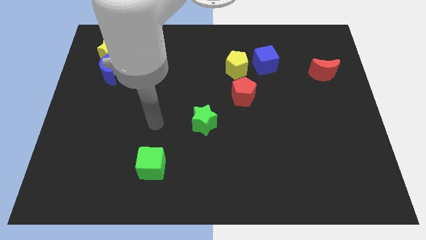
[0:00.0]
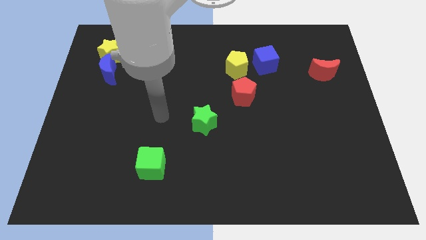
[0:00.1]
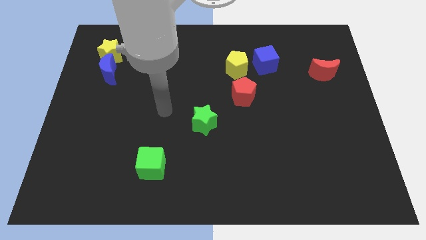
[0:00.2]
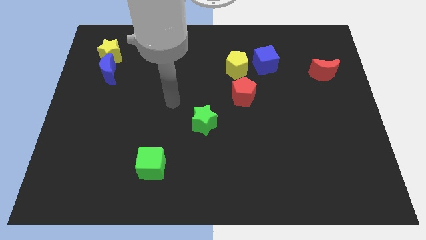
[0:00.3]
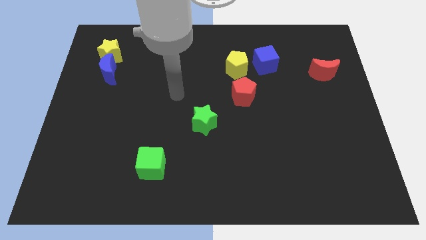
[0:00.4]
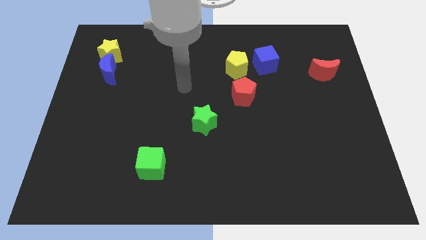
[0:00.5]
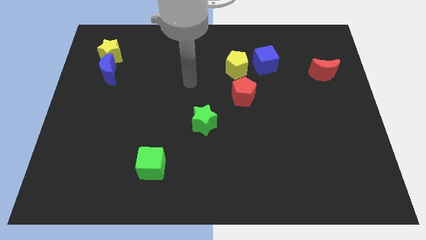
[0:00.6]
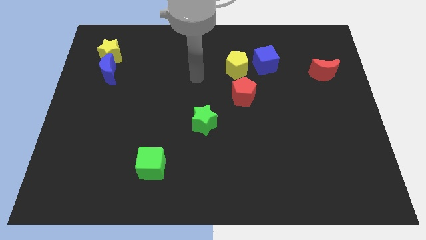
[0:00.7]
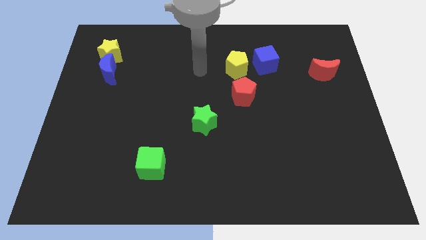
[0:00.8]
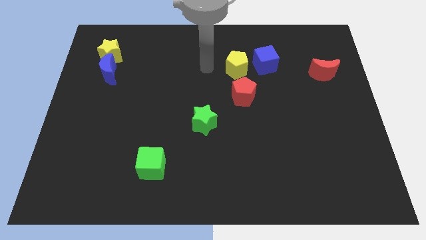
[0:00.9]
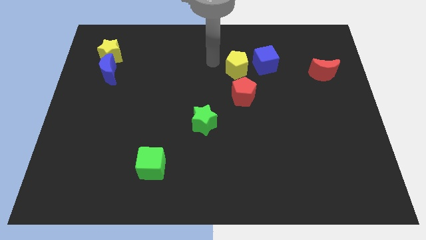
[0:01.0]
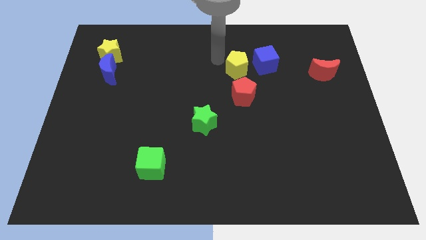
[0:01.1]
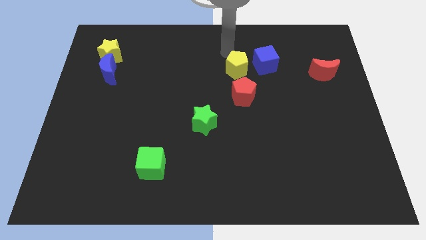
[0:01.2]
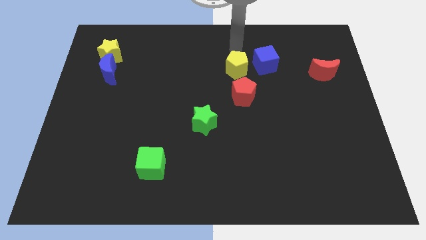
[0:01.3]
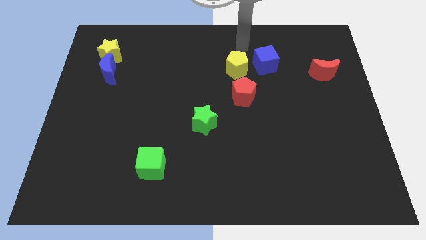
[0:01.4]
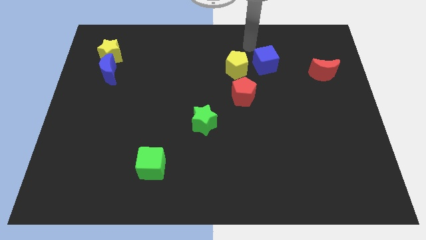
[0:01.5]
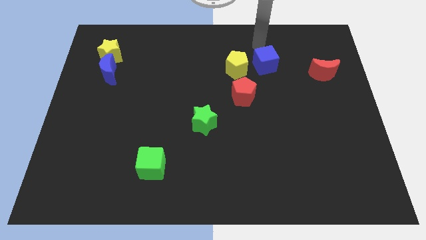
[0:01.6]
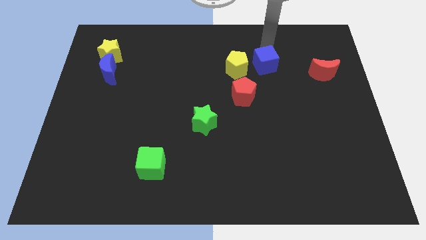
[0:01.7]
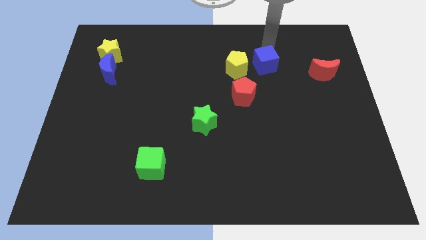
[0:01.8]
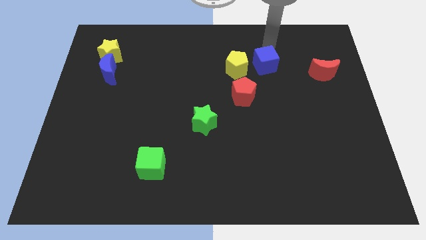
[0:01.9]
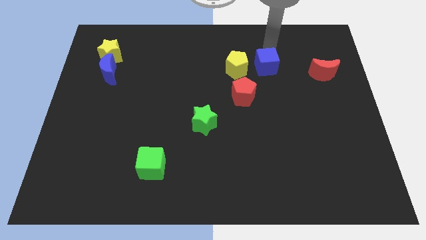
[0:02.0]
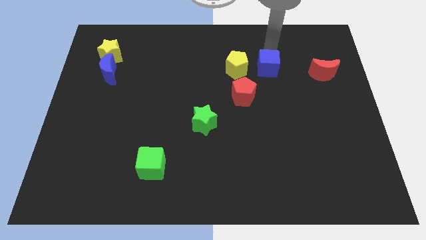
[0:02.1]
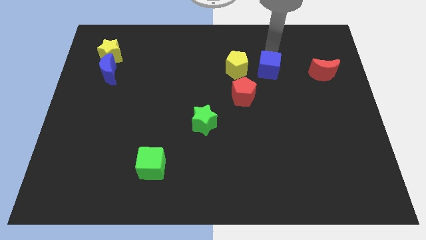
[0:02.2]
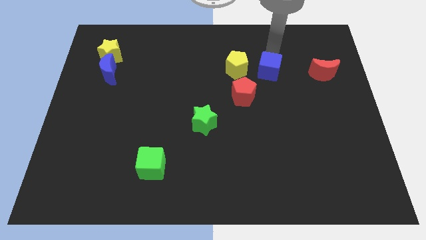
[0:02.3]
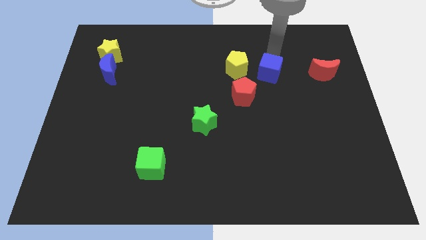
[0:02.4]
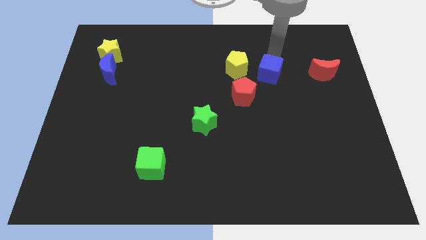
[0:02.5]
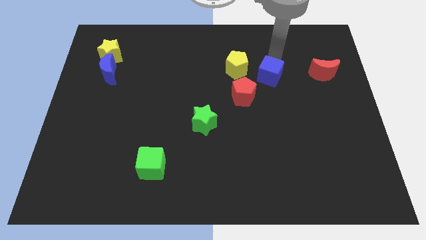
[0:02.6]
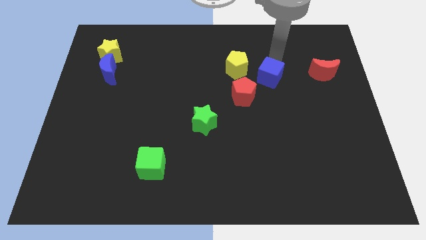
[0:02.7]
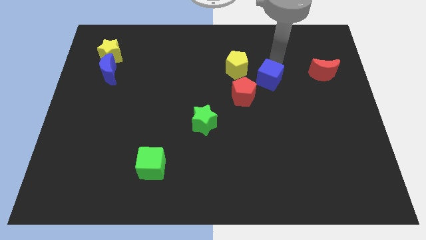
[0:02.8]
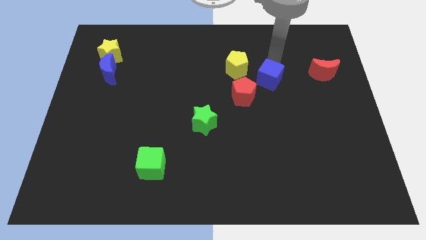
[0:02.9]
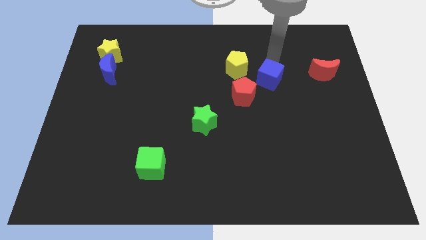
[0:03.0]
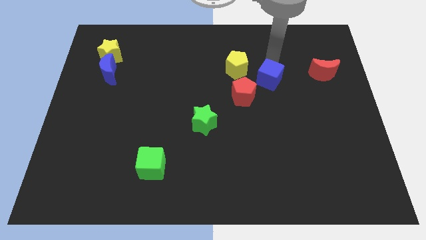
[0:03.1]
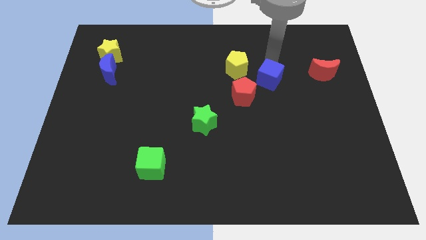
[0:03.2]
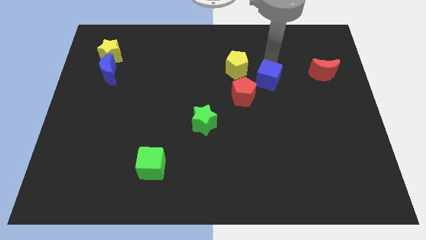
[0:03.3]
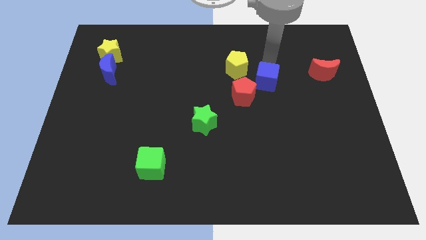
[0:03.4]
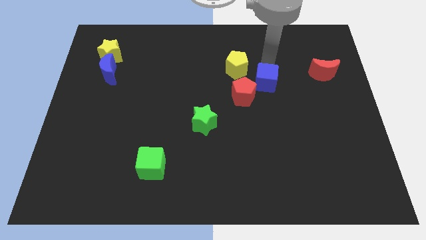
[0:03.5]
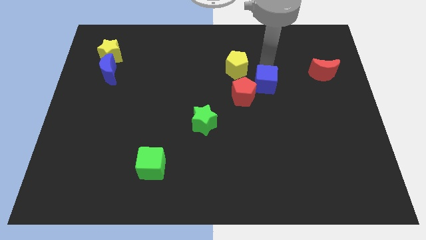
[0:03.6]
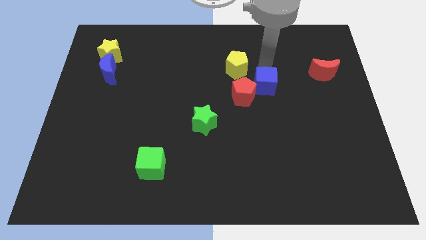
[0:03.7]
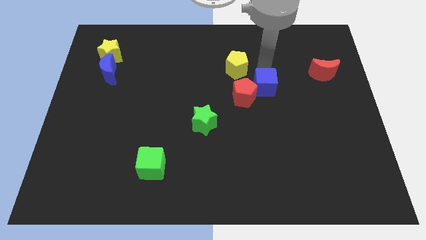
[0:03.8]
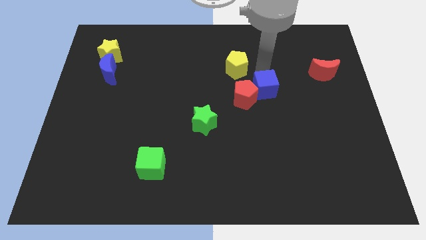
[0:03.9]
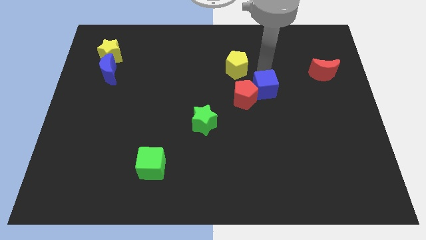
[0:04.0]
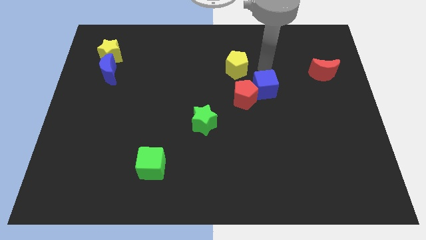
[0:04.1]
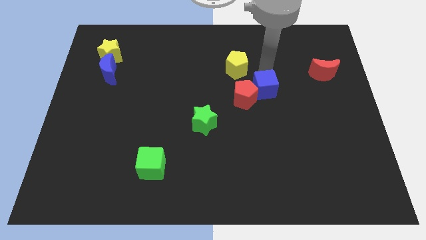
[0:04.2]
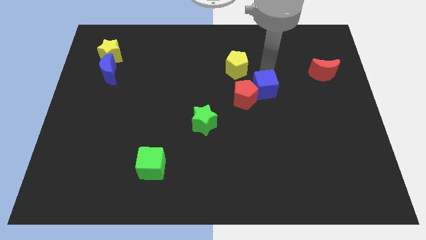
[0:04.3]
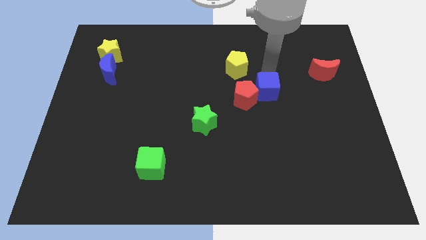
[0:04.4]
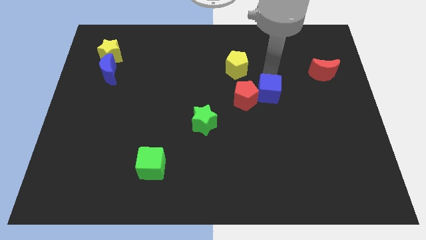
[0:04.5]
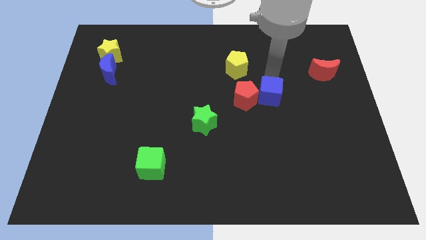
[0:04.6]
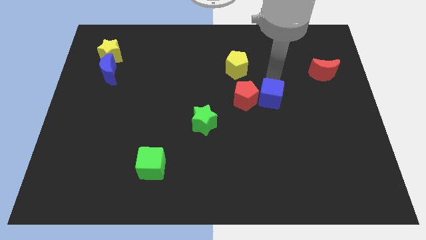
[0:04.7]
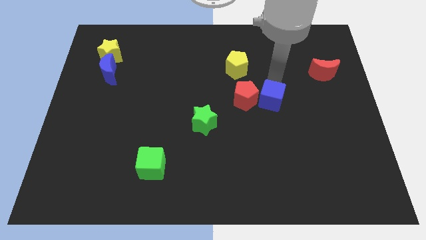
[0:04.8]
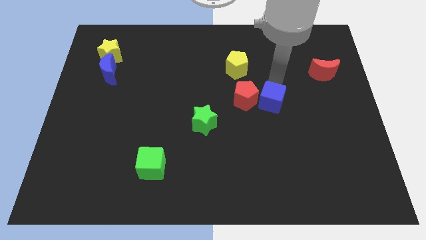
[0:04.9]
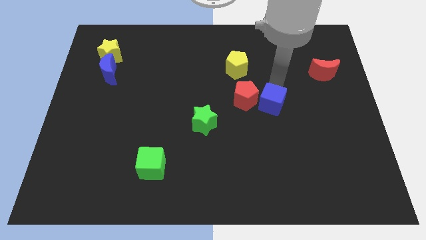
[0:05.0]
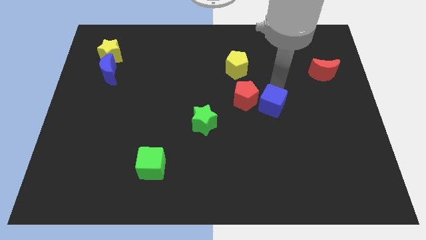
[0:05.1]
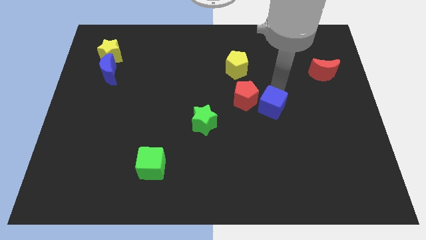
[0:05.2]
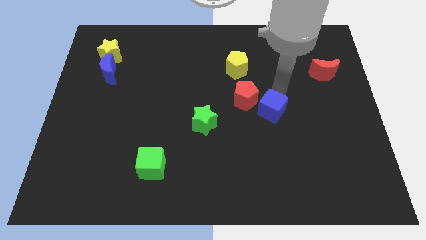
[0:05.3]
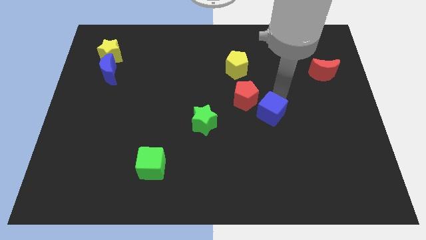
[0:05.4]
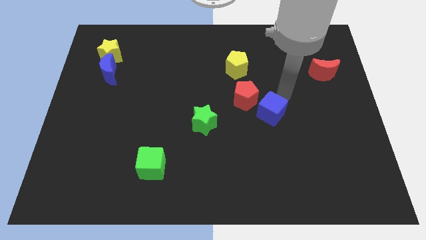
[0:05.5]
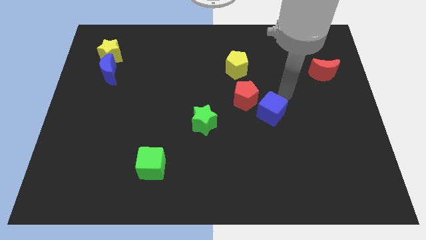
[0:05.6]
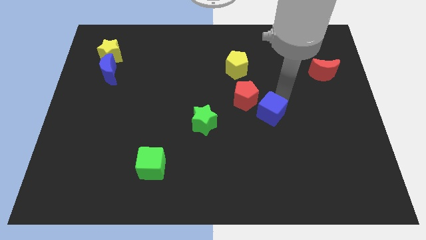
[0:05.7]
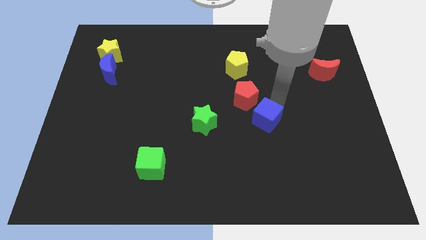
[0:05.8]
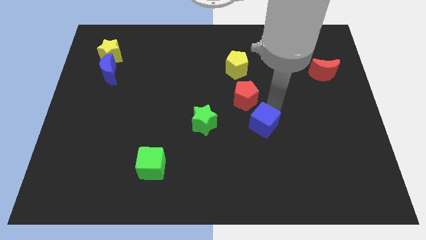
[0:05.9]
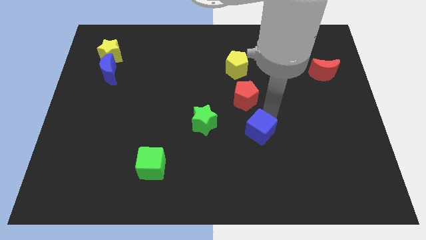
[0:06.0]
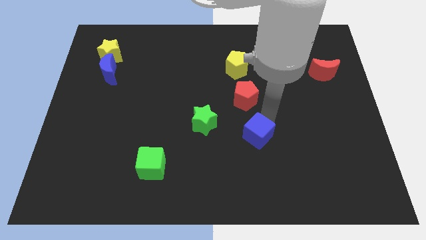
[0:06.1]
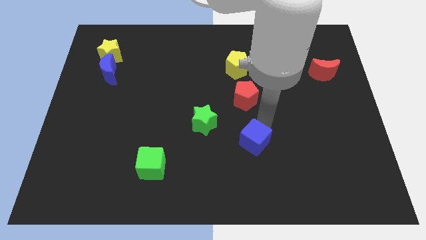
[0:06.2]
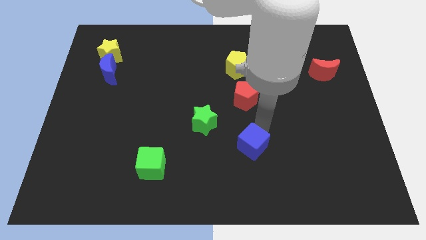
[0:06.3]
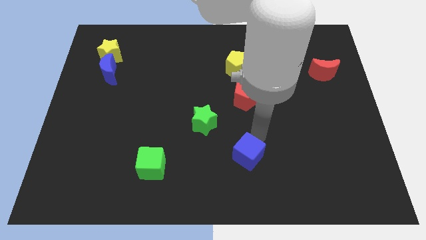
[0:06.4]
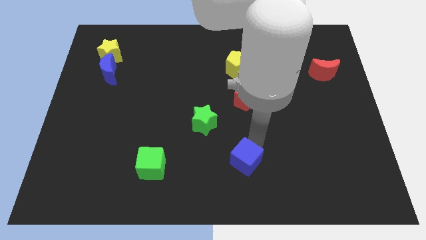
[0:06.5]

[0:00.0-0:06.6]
put the blue cube to the bottom side
